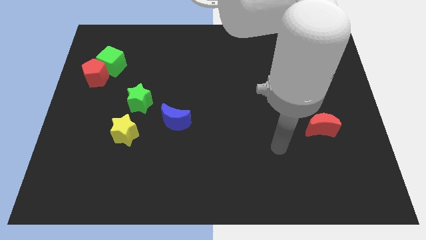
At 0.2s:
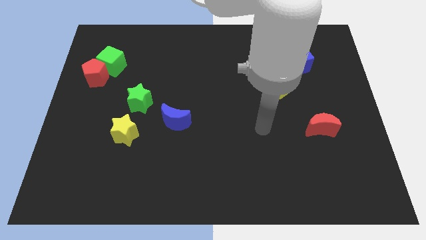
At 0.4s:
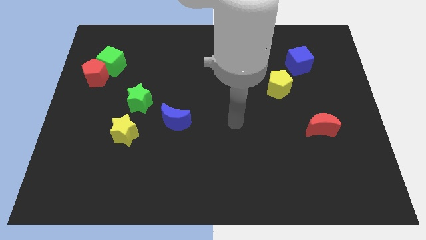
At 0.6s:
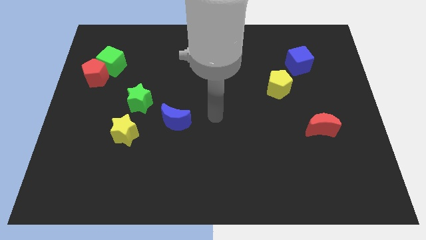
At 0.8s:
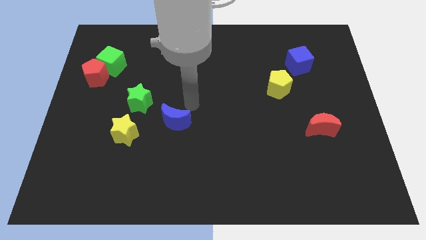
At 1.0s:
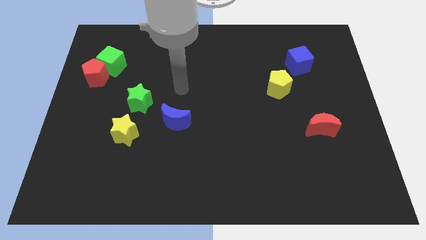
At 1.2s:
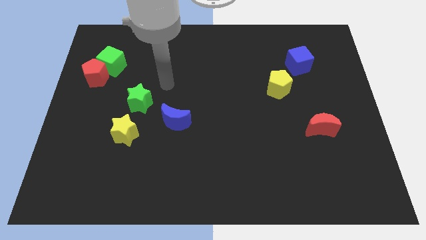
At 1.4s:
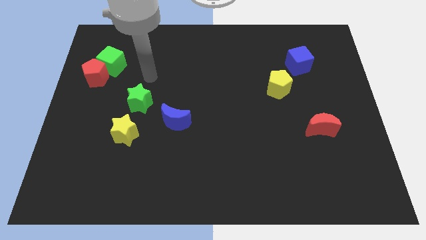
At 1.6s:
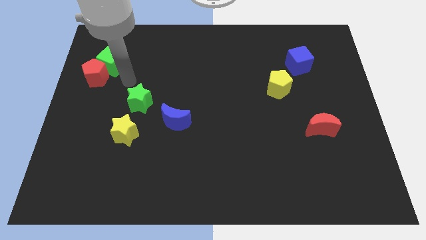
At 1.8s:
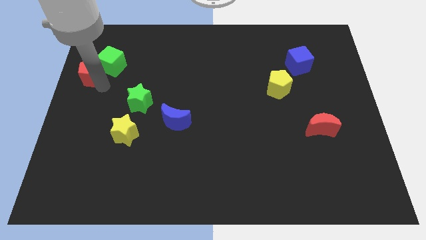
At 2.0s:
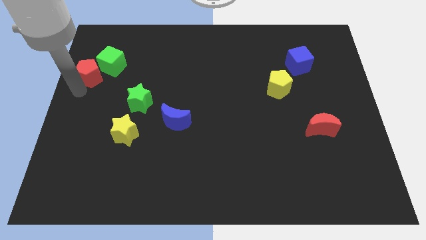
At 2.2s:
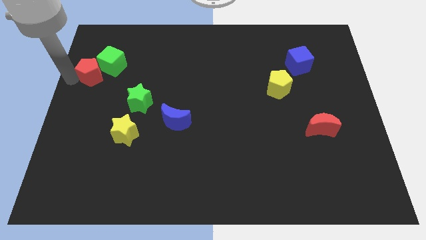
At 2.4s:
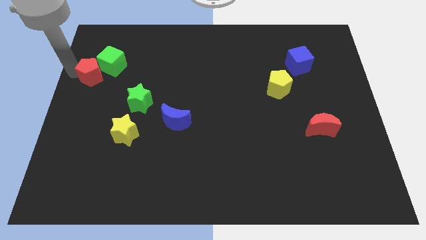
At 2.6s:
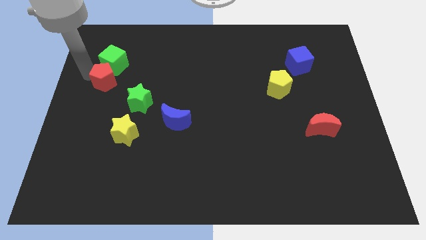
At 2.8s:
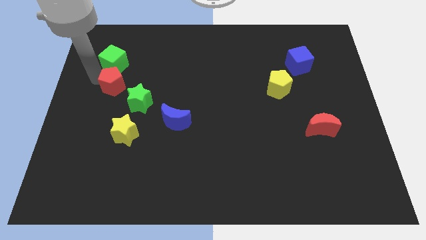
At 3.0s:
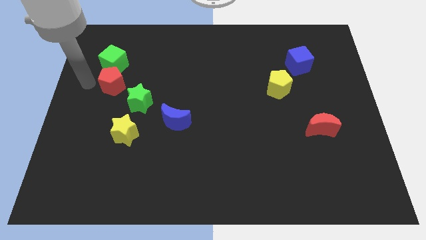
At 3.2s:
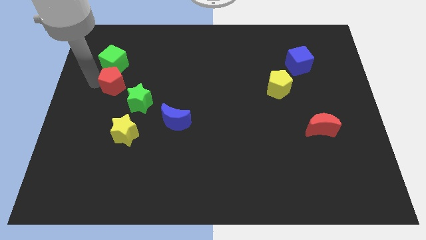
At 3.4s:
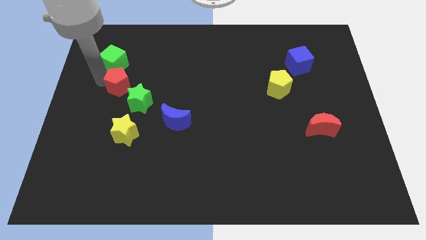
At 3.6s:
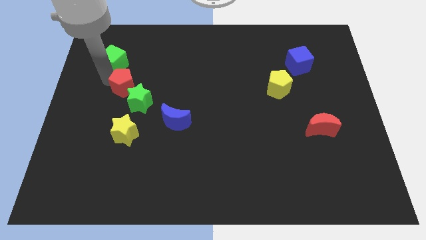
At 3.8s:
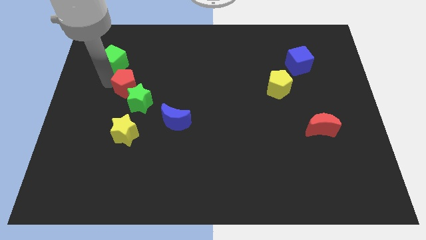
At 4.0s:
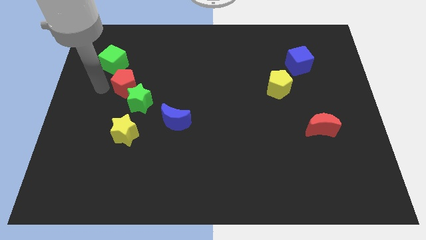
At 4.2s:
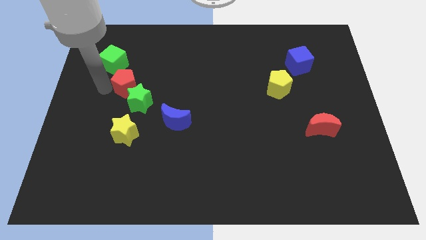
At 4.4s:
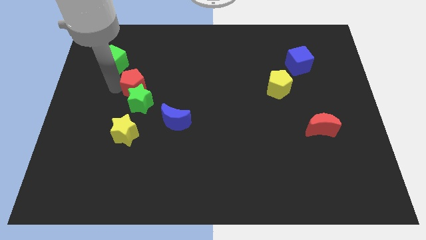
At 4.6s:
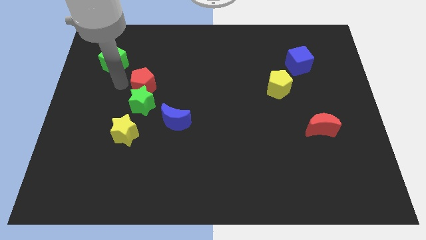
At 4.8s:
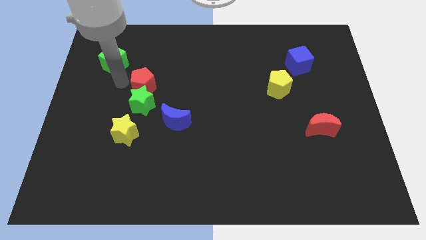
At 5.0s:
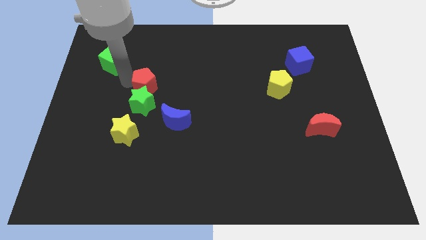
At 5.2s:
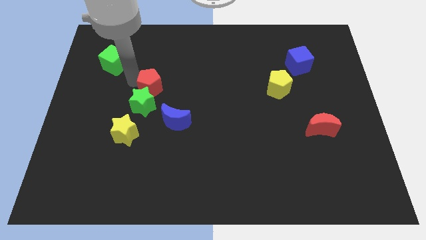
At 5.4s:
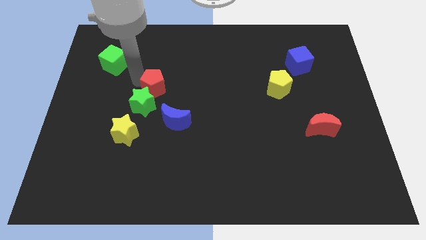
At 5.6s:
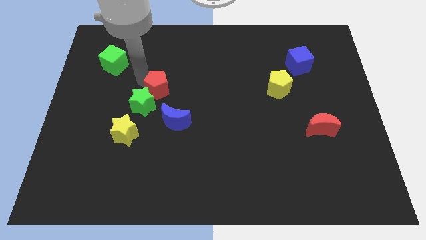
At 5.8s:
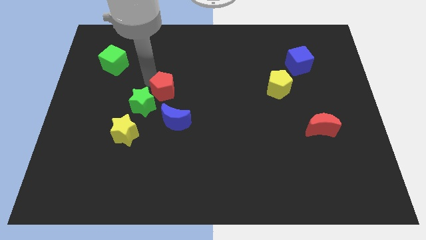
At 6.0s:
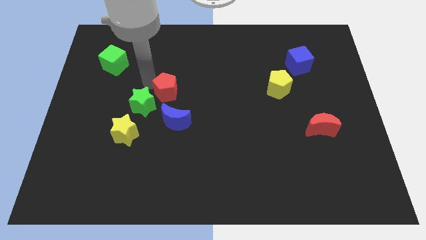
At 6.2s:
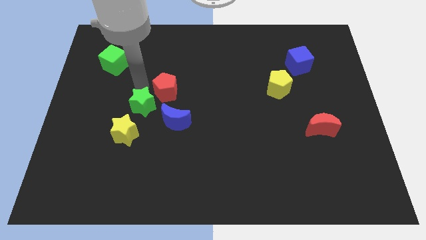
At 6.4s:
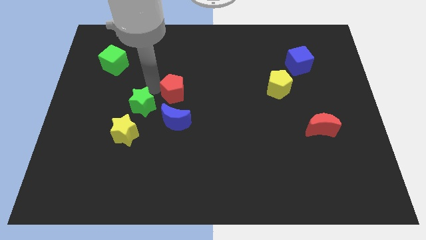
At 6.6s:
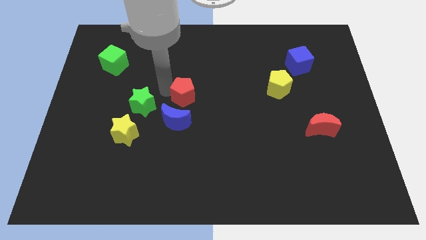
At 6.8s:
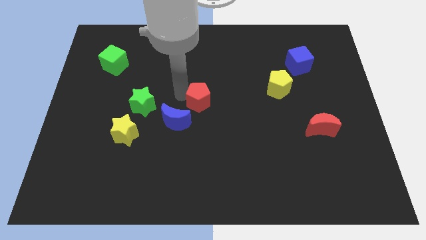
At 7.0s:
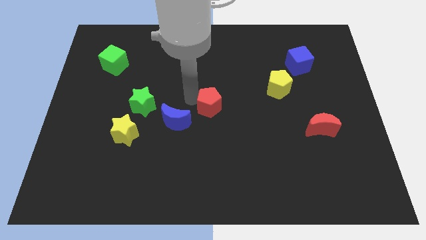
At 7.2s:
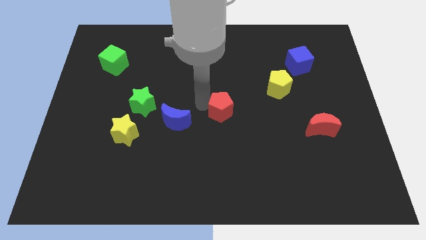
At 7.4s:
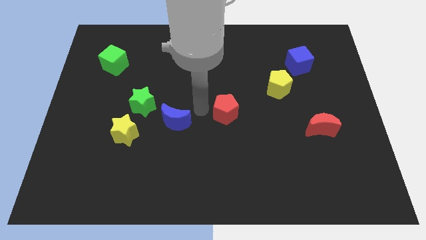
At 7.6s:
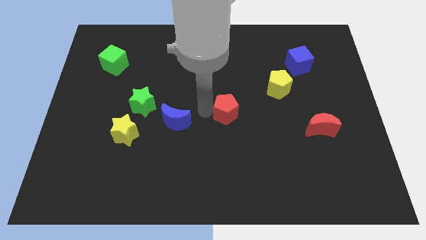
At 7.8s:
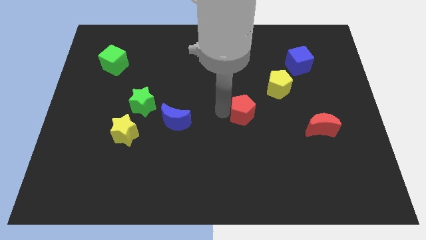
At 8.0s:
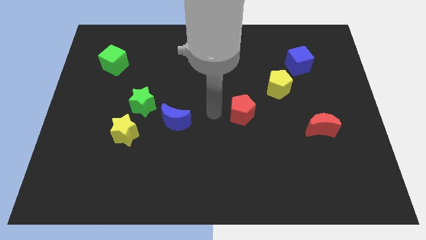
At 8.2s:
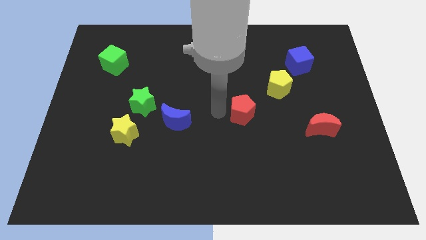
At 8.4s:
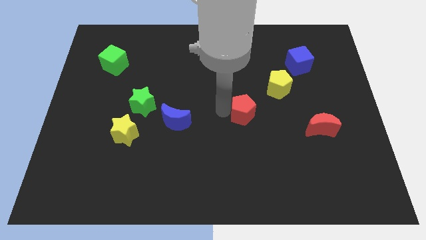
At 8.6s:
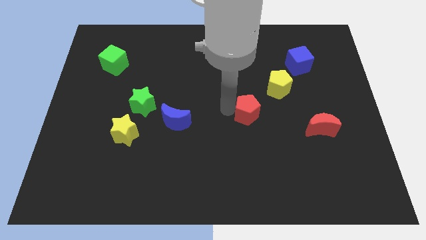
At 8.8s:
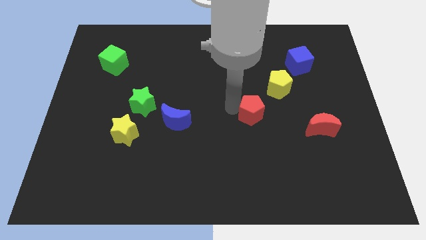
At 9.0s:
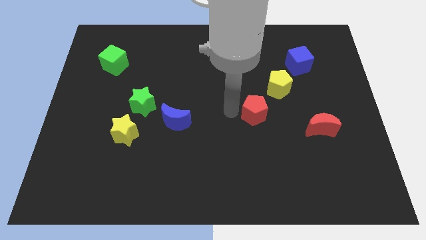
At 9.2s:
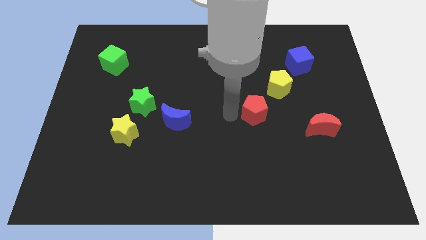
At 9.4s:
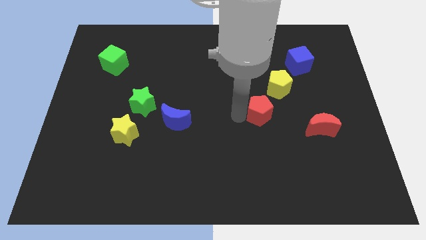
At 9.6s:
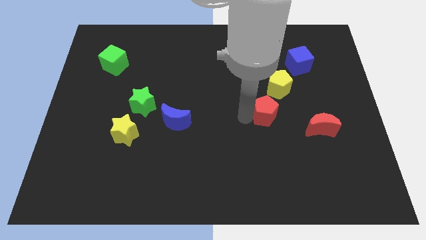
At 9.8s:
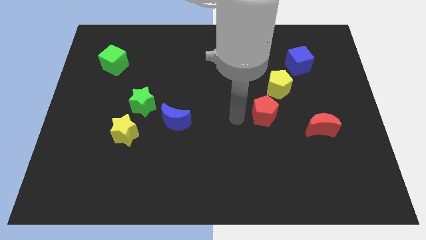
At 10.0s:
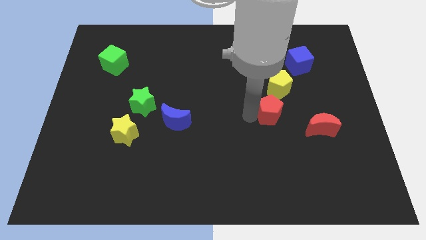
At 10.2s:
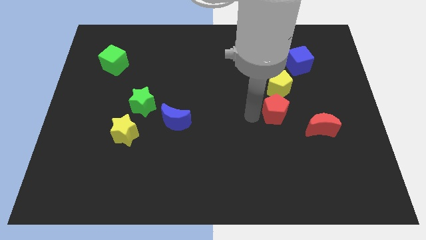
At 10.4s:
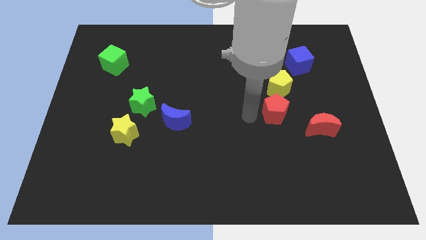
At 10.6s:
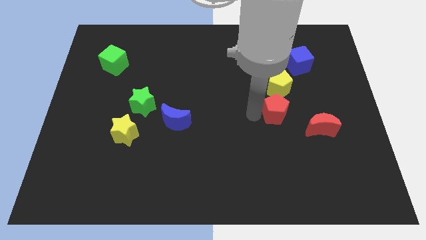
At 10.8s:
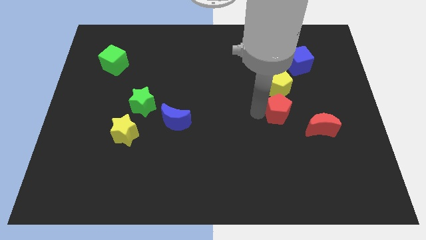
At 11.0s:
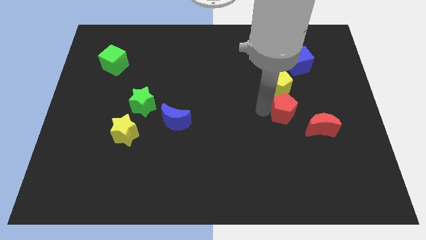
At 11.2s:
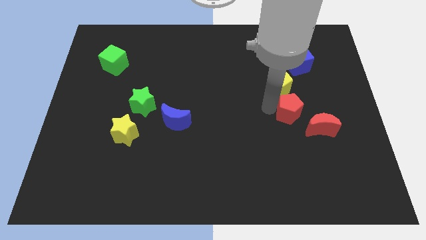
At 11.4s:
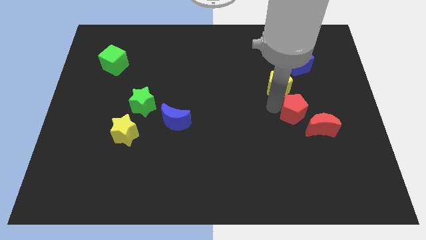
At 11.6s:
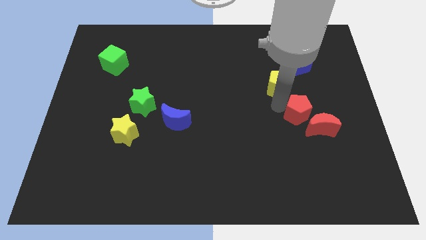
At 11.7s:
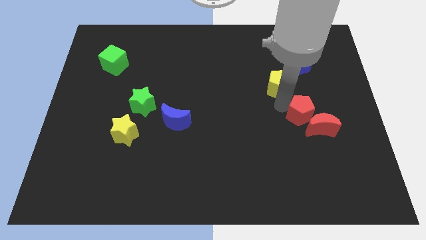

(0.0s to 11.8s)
move the red pentagon towards the red moon

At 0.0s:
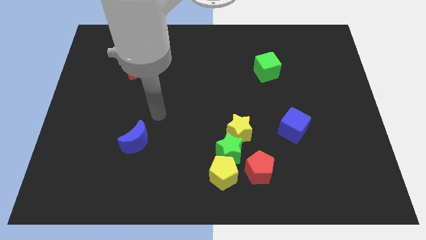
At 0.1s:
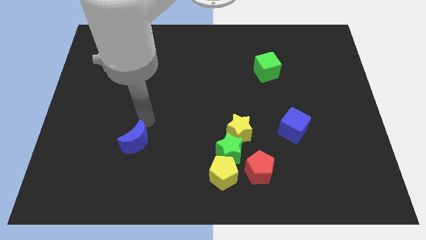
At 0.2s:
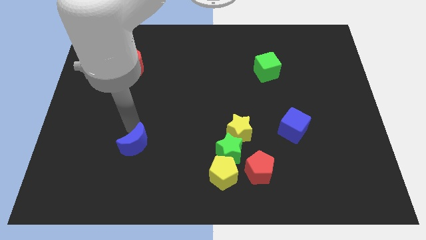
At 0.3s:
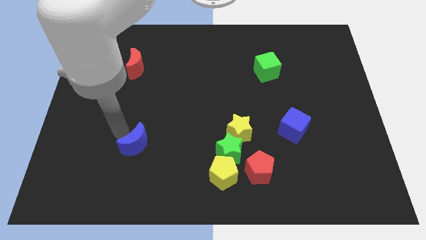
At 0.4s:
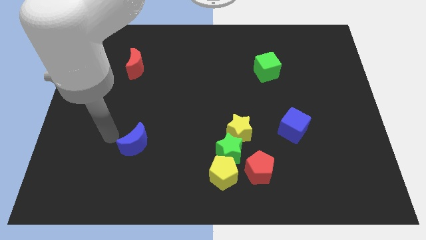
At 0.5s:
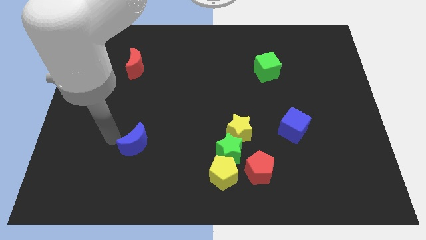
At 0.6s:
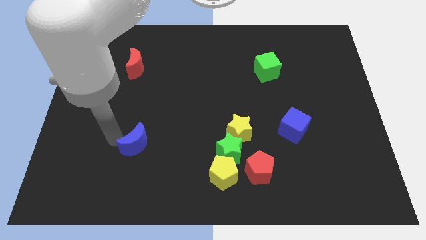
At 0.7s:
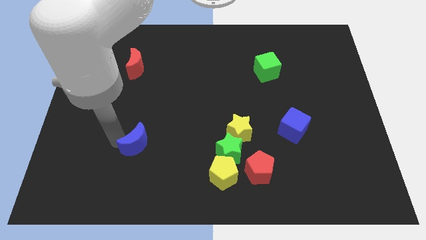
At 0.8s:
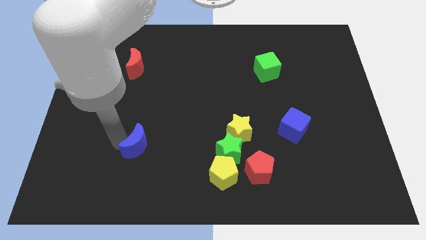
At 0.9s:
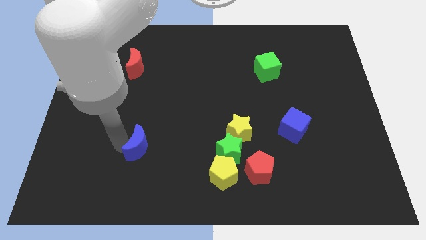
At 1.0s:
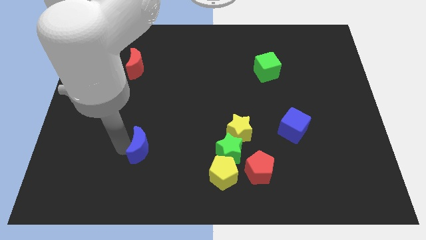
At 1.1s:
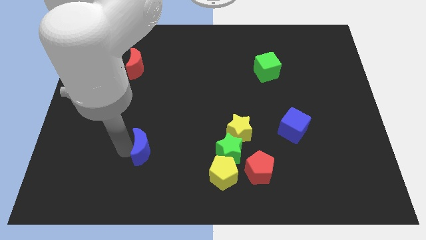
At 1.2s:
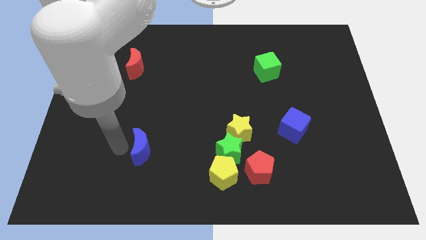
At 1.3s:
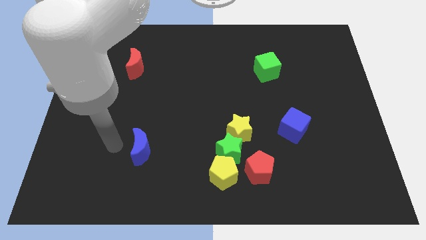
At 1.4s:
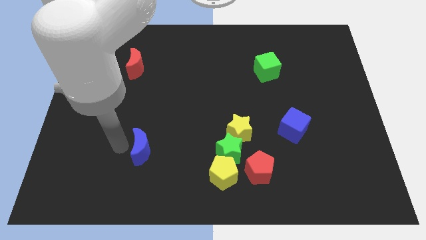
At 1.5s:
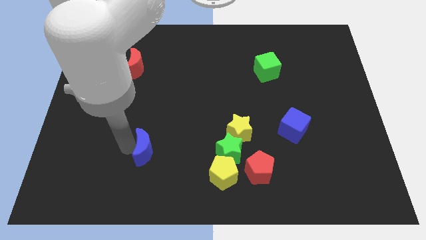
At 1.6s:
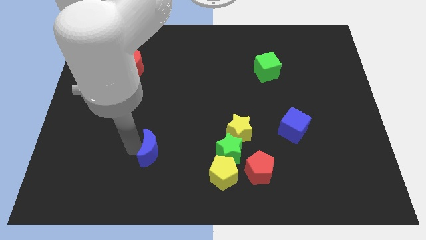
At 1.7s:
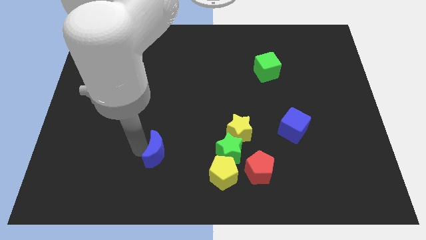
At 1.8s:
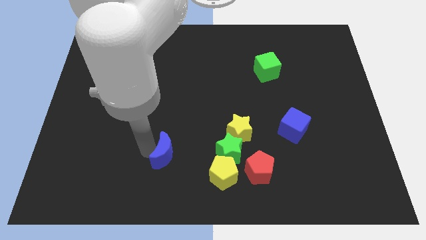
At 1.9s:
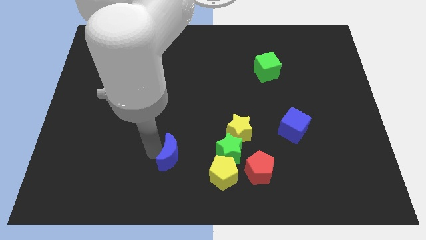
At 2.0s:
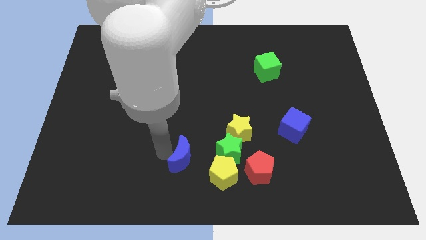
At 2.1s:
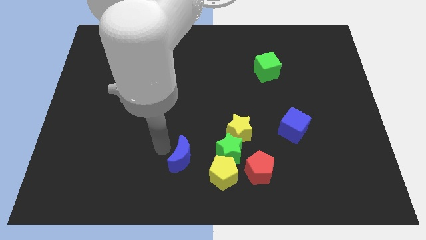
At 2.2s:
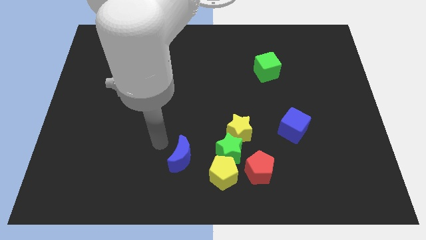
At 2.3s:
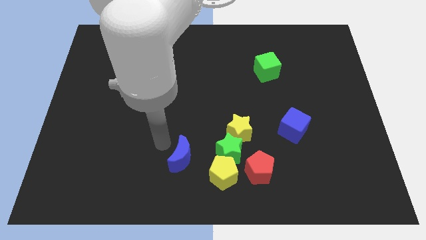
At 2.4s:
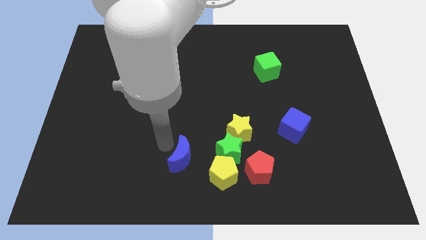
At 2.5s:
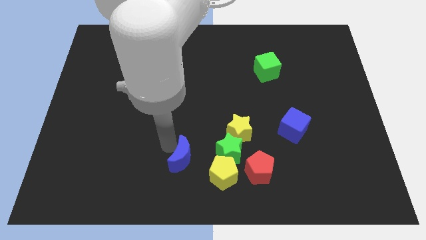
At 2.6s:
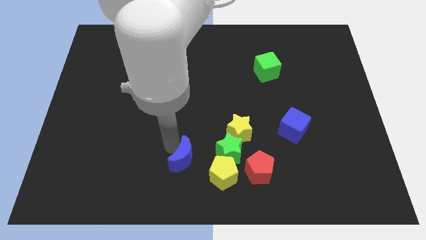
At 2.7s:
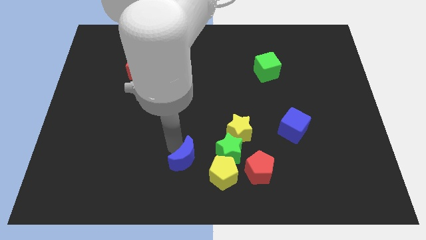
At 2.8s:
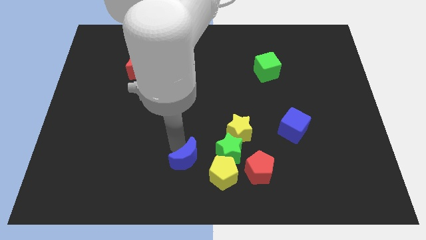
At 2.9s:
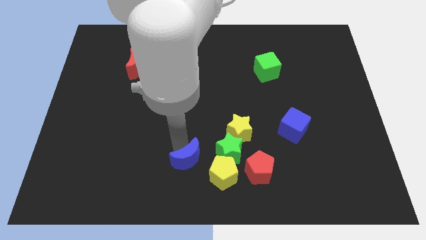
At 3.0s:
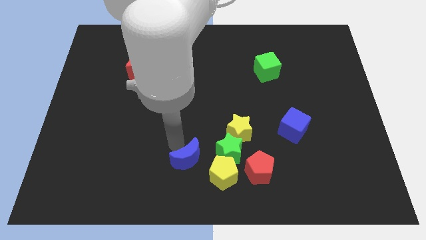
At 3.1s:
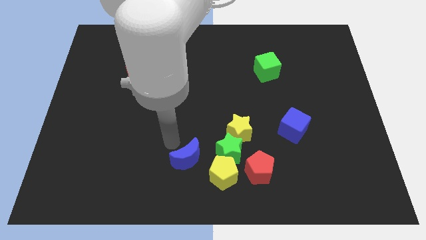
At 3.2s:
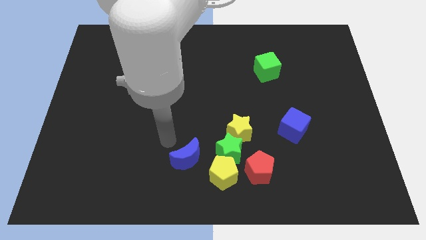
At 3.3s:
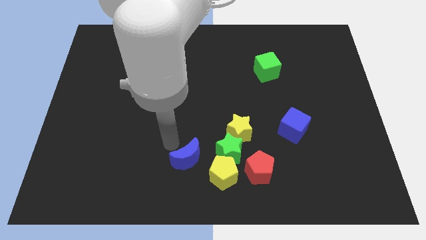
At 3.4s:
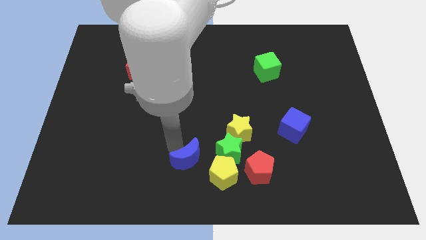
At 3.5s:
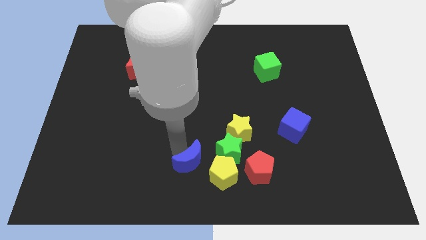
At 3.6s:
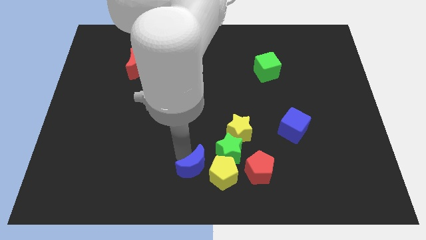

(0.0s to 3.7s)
push the blue moon to the yellow pentagon
